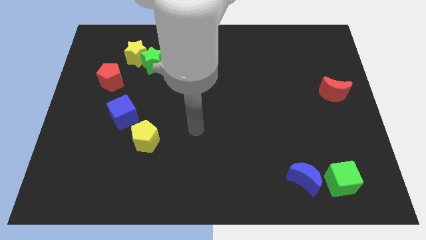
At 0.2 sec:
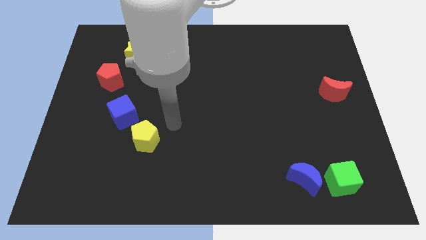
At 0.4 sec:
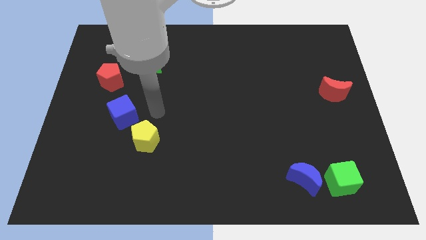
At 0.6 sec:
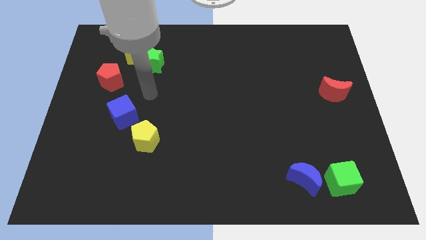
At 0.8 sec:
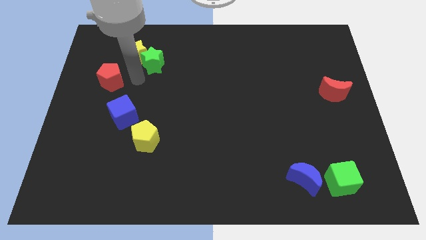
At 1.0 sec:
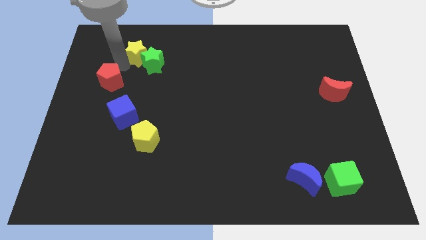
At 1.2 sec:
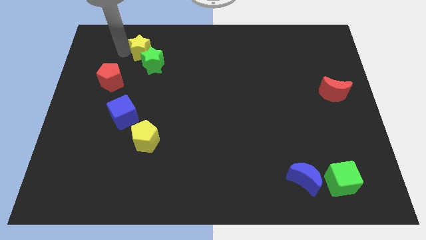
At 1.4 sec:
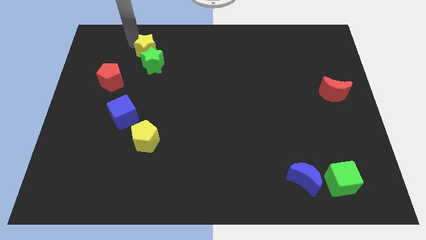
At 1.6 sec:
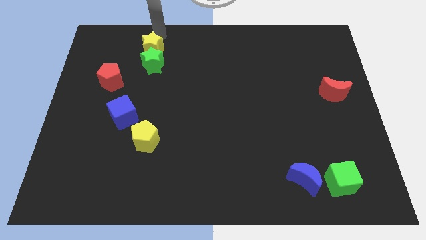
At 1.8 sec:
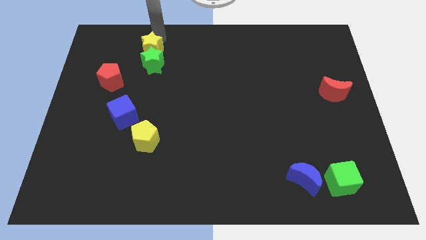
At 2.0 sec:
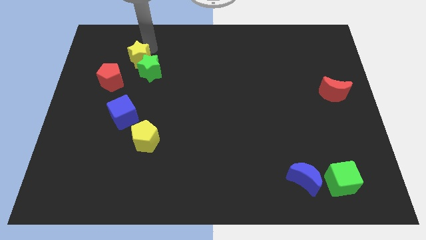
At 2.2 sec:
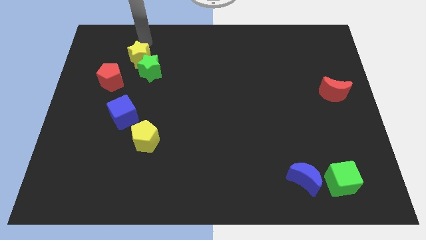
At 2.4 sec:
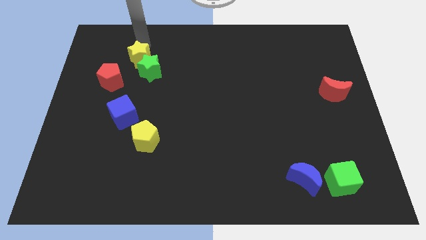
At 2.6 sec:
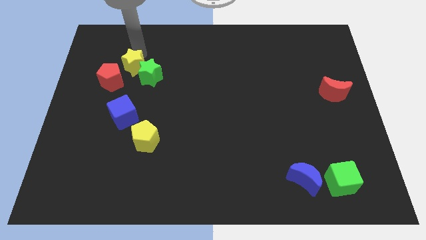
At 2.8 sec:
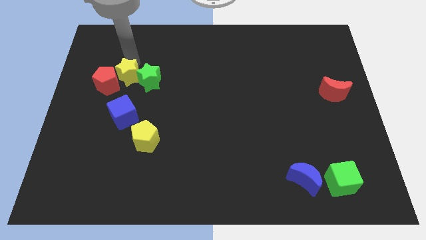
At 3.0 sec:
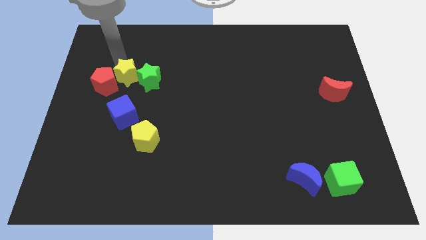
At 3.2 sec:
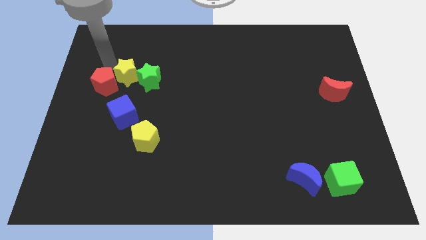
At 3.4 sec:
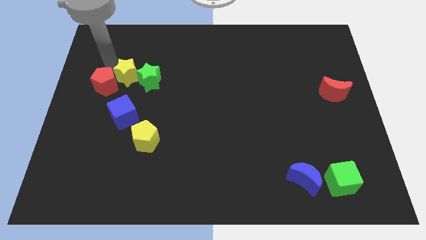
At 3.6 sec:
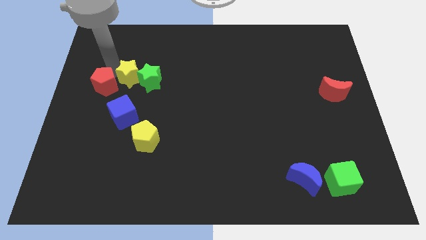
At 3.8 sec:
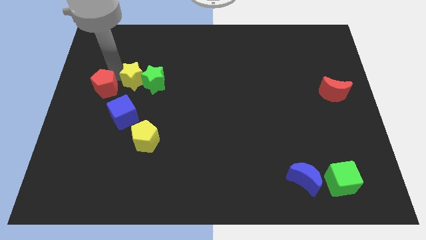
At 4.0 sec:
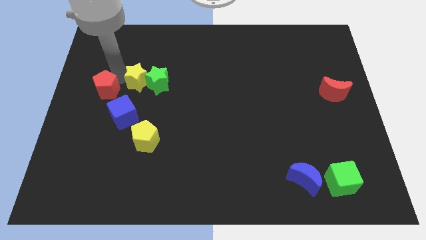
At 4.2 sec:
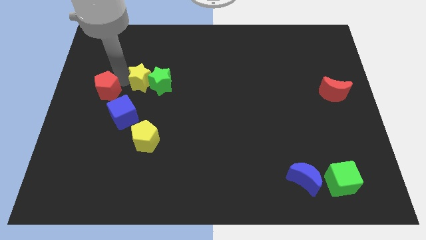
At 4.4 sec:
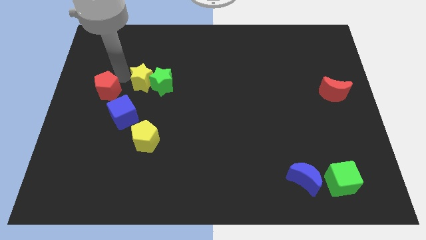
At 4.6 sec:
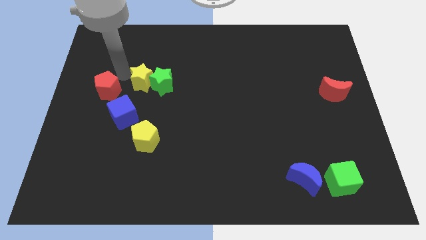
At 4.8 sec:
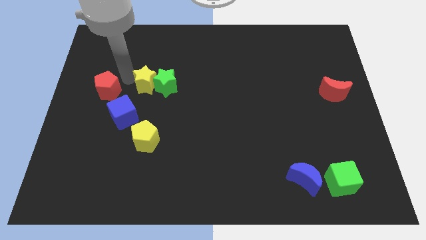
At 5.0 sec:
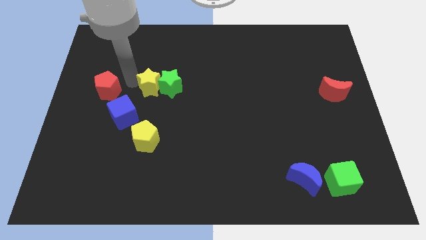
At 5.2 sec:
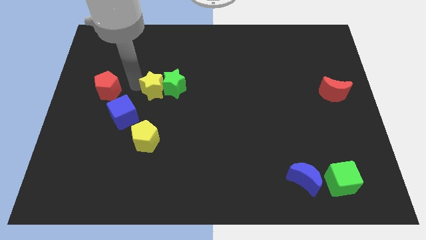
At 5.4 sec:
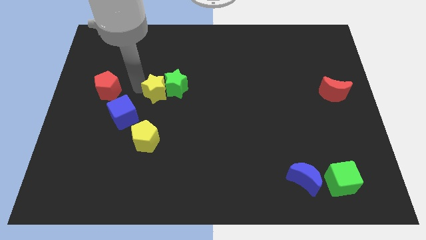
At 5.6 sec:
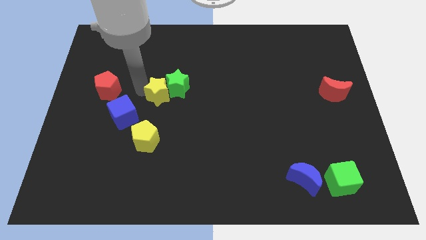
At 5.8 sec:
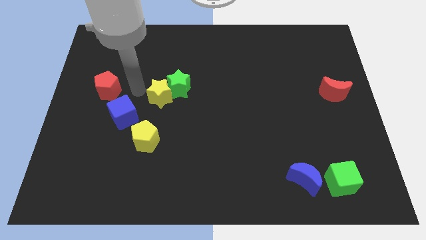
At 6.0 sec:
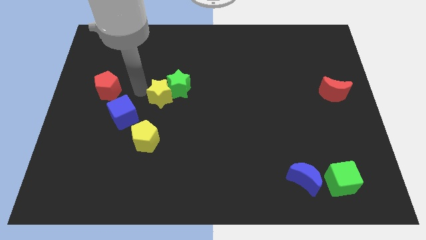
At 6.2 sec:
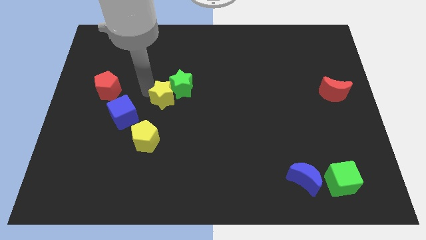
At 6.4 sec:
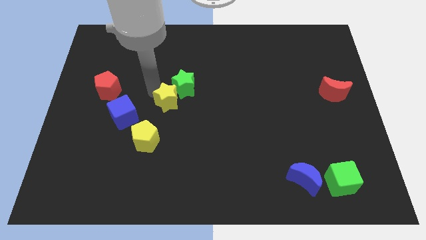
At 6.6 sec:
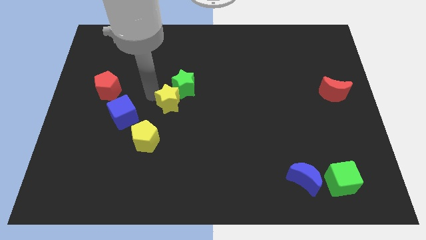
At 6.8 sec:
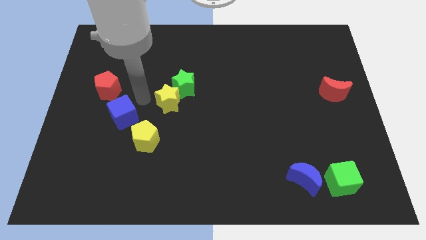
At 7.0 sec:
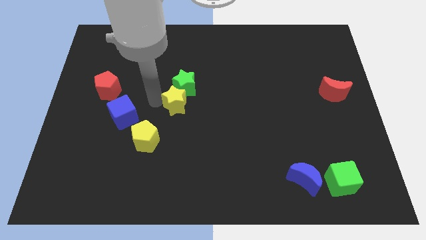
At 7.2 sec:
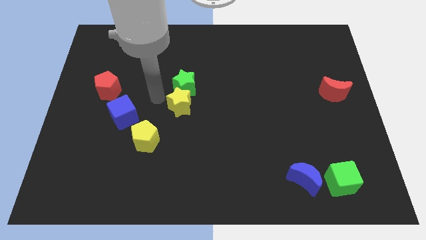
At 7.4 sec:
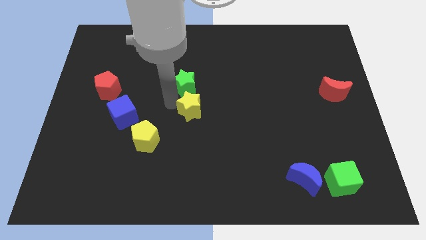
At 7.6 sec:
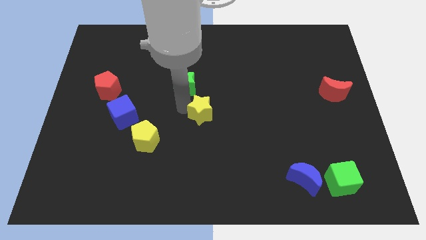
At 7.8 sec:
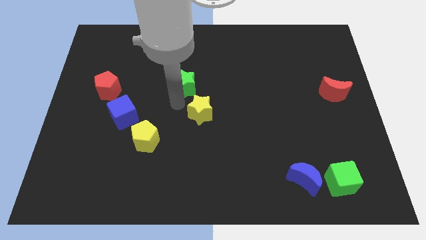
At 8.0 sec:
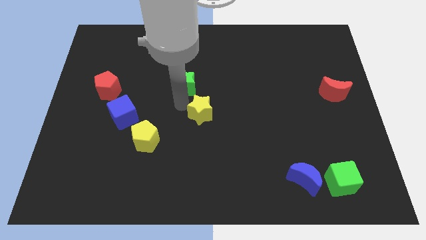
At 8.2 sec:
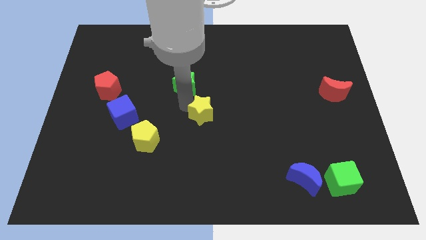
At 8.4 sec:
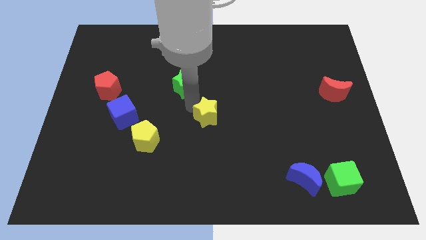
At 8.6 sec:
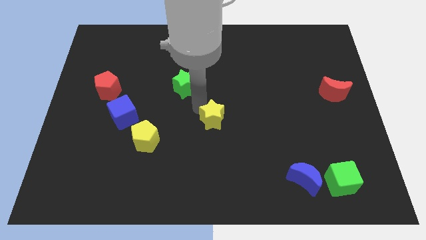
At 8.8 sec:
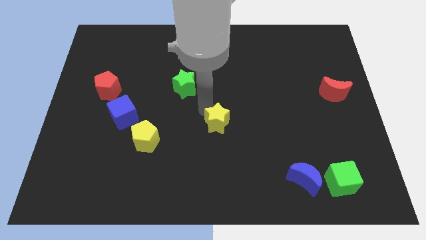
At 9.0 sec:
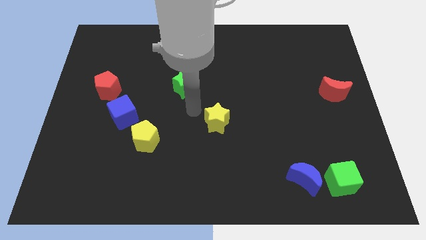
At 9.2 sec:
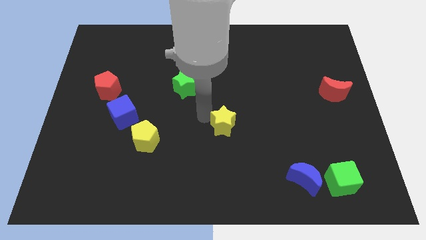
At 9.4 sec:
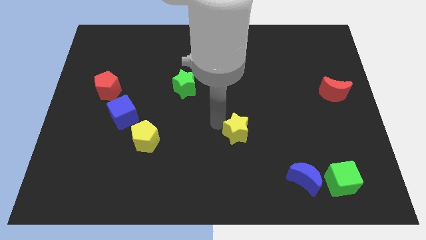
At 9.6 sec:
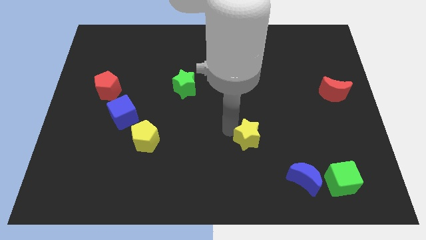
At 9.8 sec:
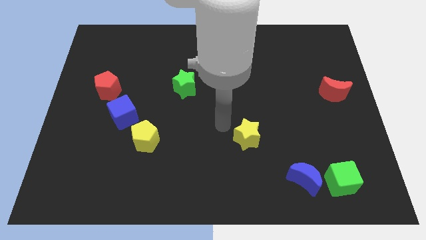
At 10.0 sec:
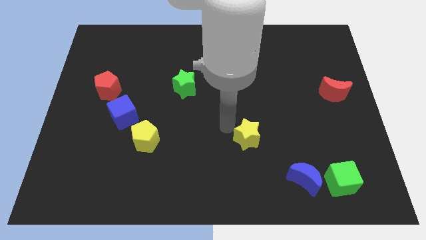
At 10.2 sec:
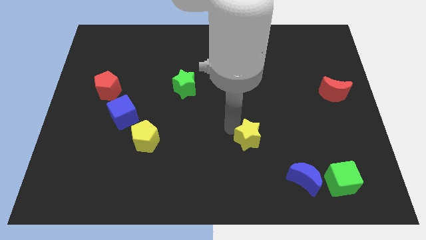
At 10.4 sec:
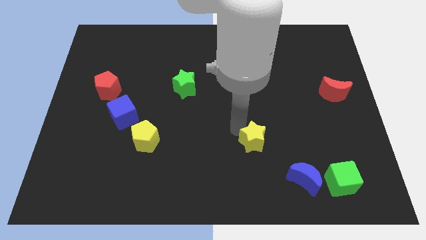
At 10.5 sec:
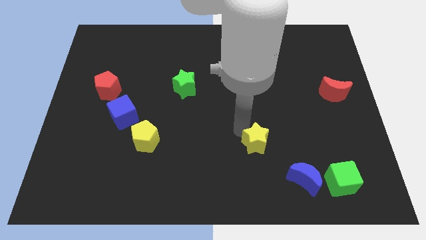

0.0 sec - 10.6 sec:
move the yellow star to the top left of the blue moon

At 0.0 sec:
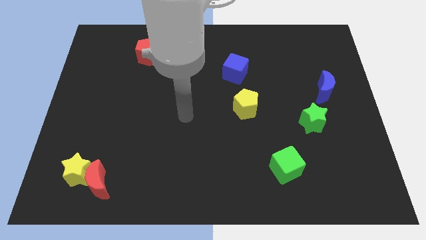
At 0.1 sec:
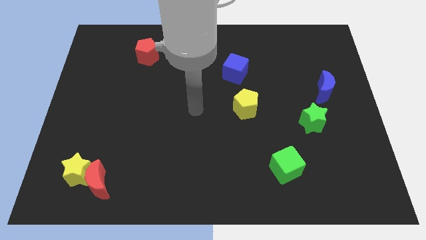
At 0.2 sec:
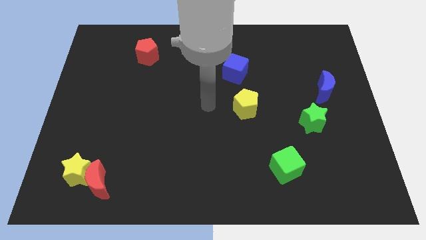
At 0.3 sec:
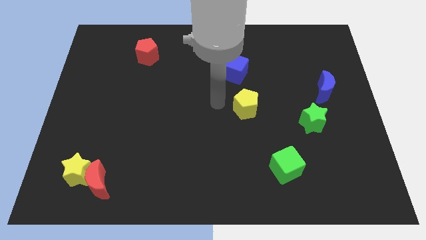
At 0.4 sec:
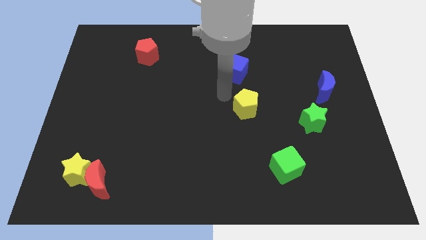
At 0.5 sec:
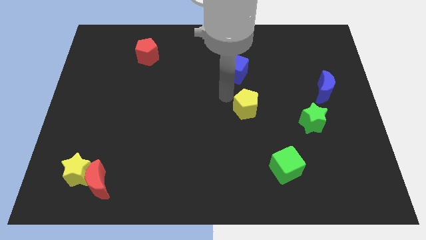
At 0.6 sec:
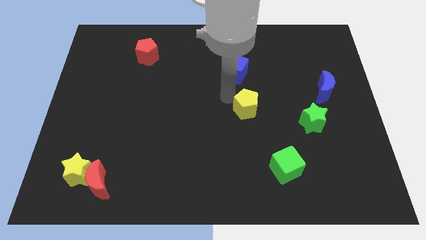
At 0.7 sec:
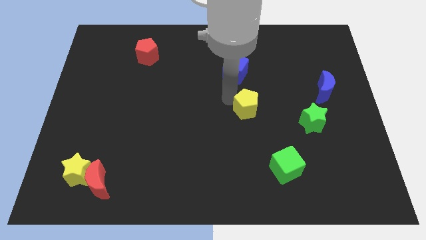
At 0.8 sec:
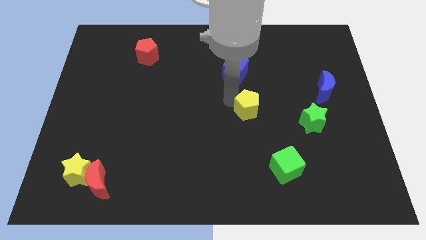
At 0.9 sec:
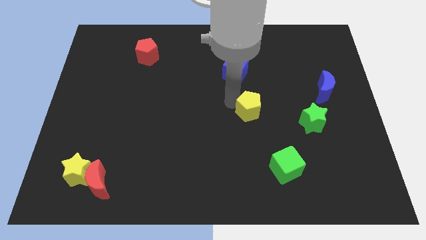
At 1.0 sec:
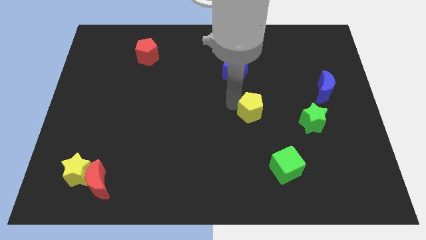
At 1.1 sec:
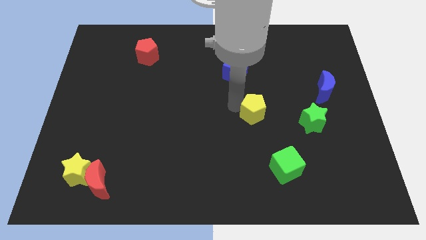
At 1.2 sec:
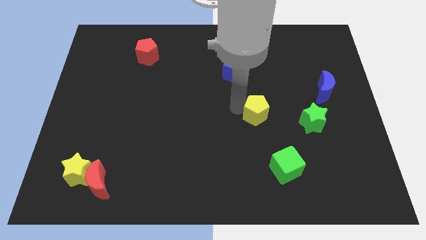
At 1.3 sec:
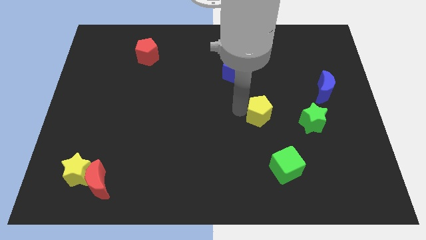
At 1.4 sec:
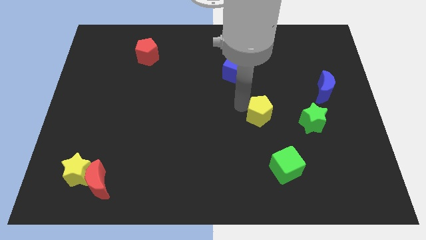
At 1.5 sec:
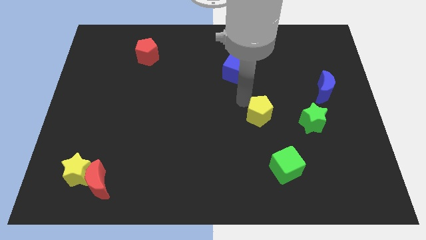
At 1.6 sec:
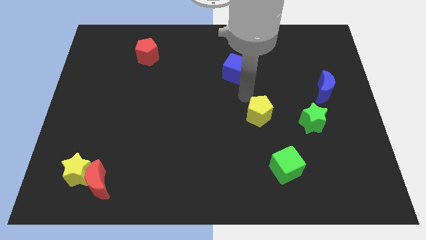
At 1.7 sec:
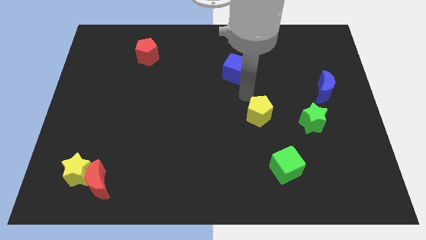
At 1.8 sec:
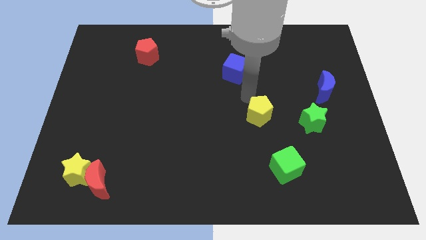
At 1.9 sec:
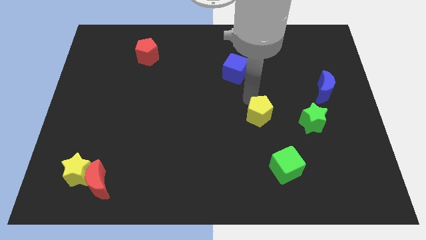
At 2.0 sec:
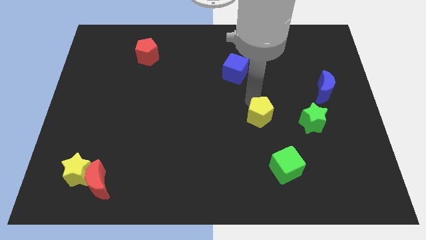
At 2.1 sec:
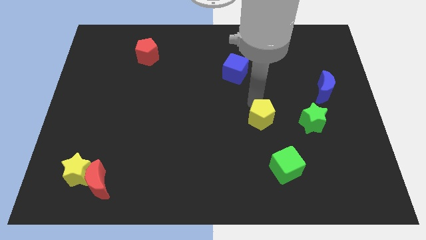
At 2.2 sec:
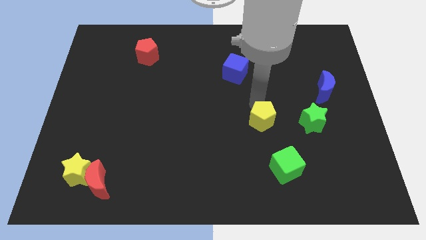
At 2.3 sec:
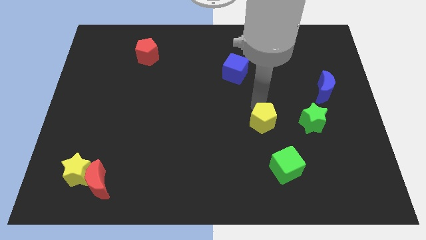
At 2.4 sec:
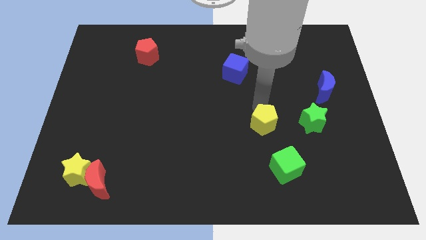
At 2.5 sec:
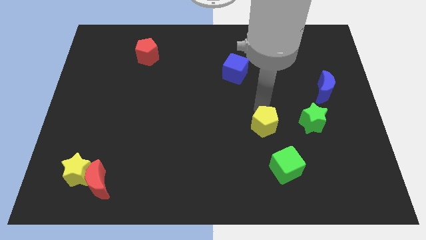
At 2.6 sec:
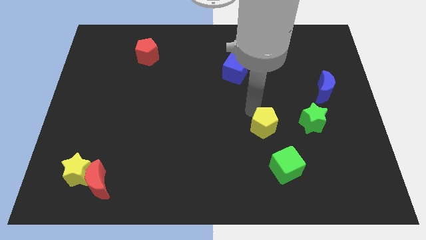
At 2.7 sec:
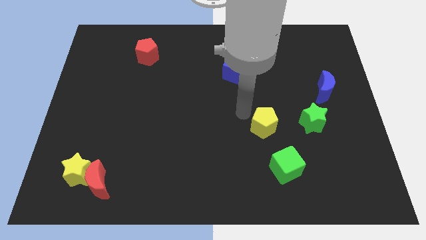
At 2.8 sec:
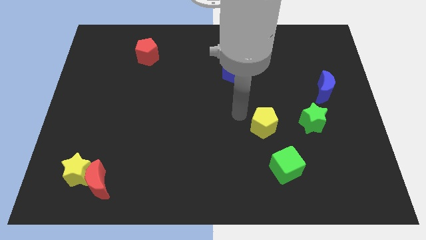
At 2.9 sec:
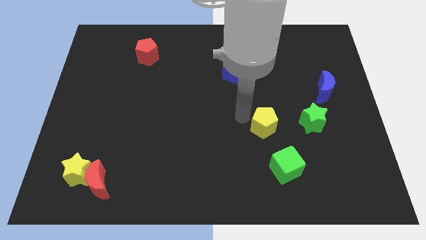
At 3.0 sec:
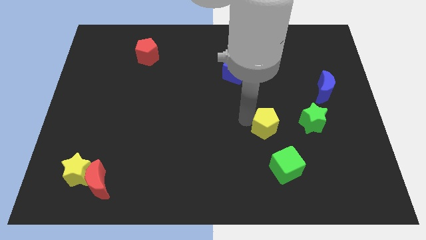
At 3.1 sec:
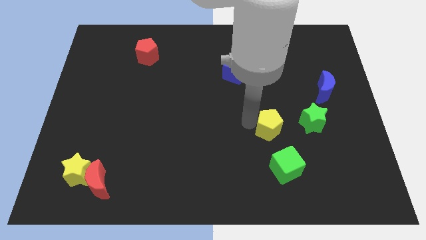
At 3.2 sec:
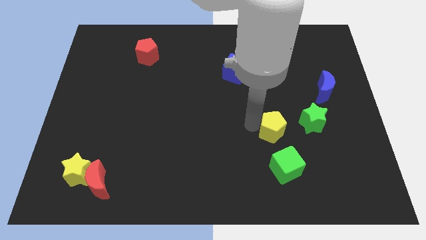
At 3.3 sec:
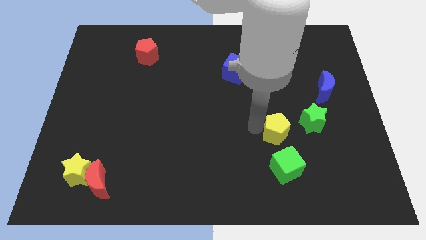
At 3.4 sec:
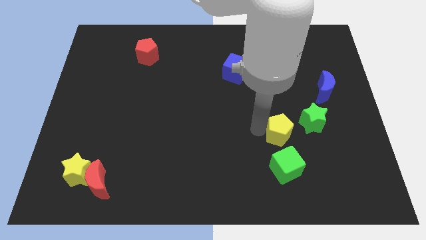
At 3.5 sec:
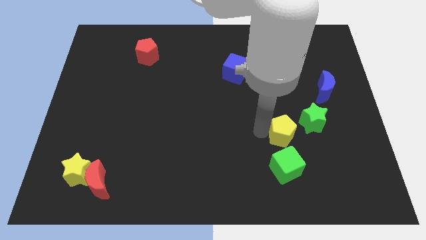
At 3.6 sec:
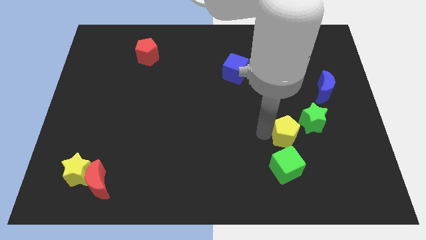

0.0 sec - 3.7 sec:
put the yellow pentagon to the top right side of the green cube
